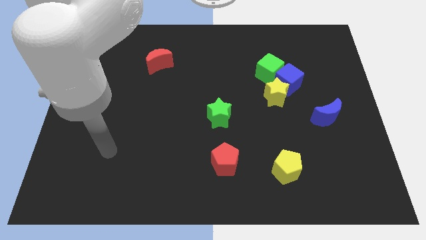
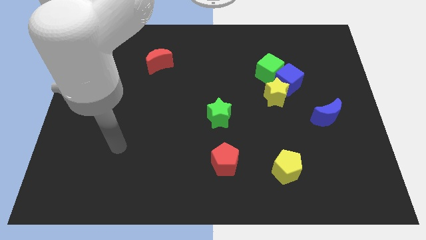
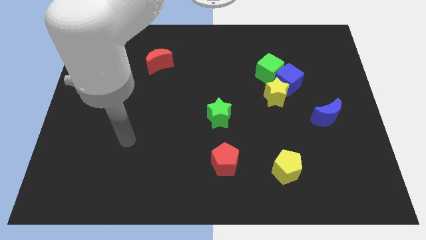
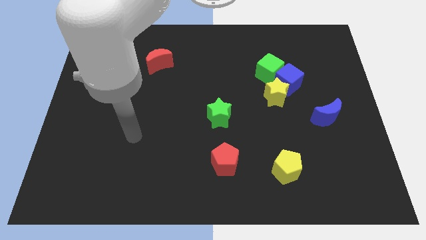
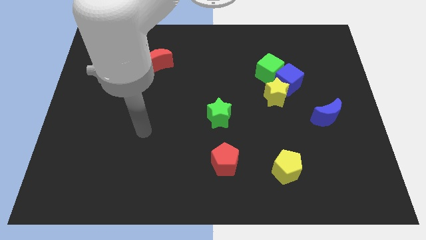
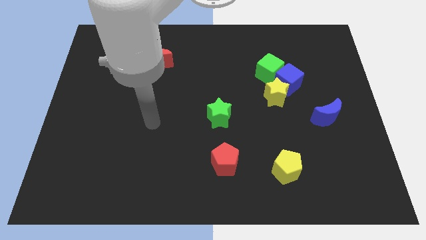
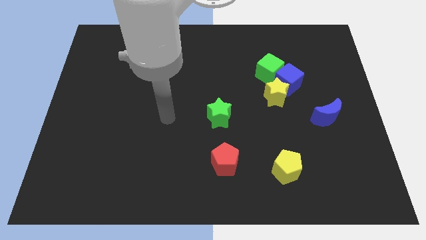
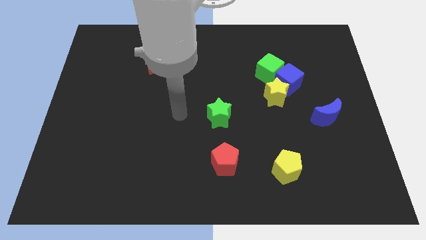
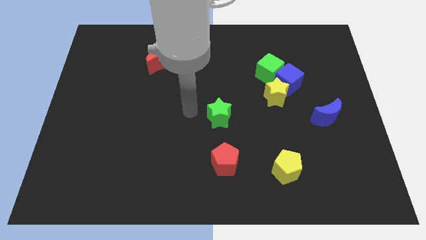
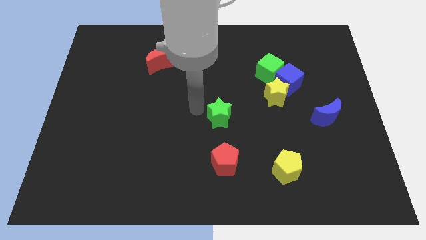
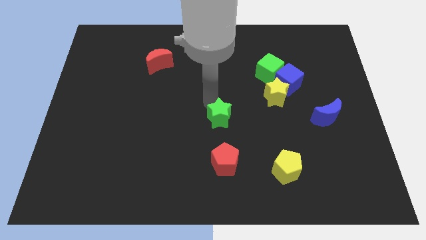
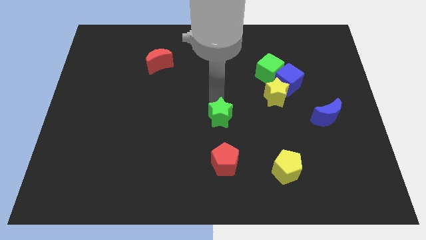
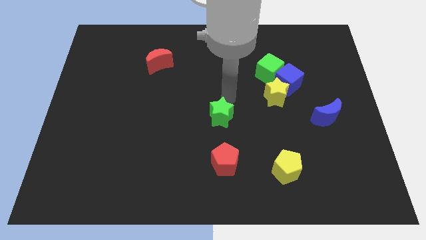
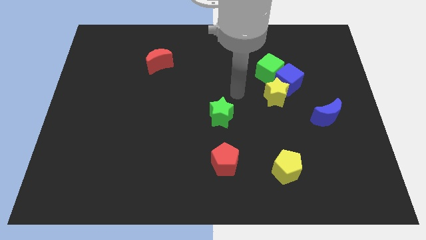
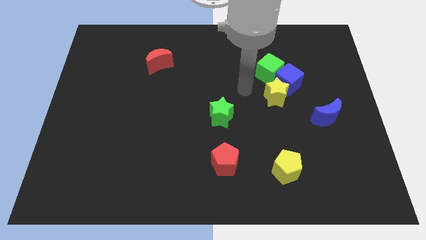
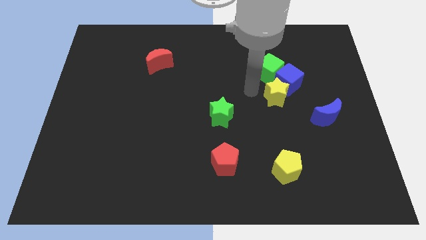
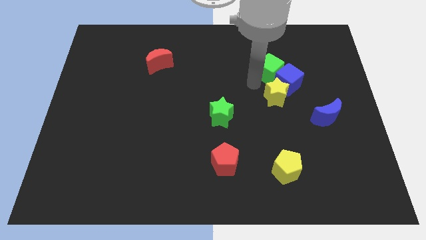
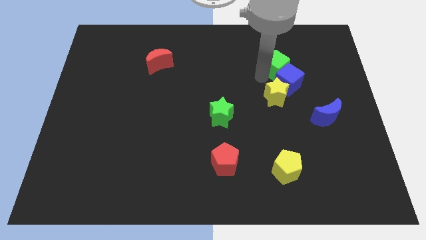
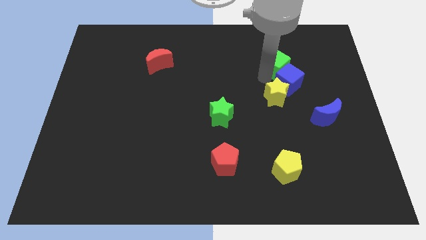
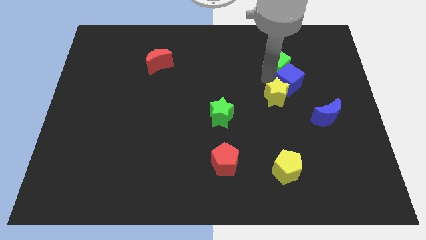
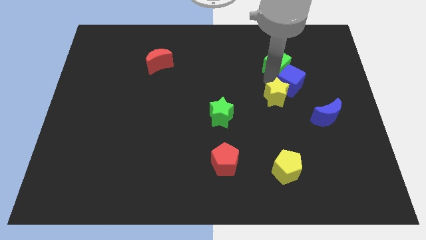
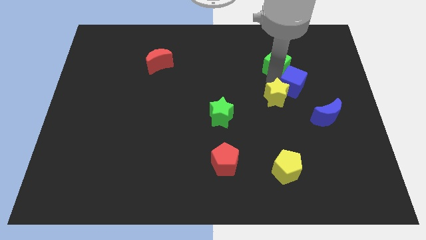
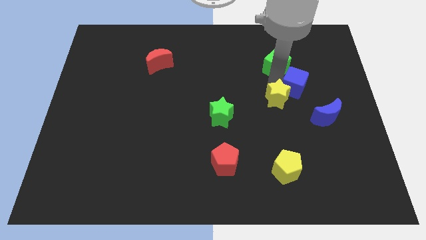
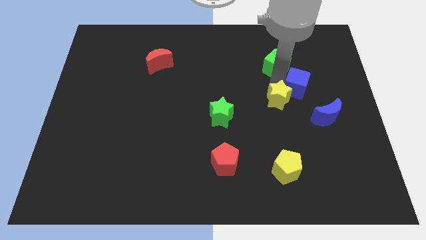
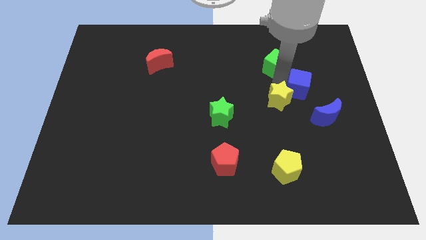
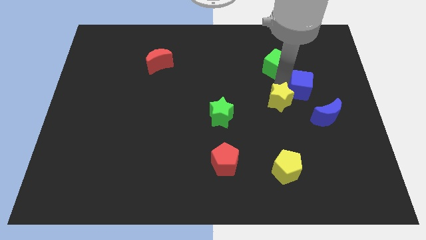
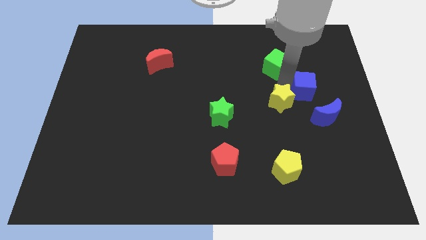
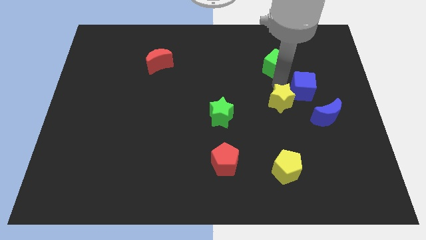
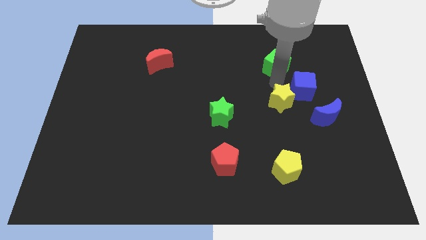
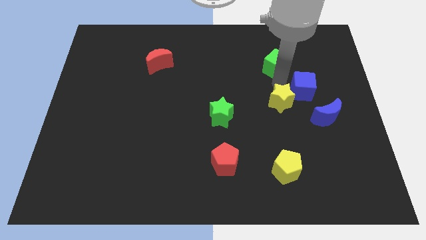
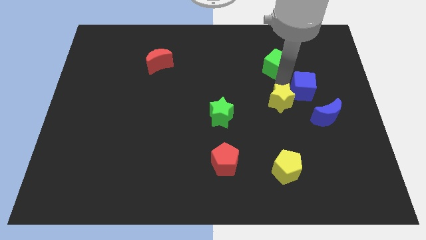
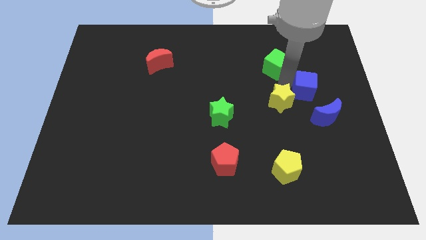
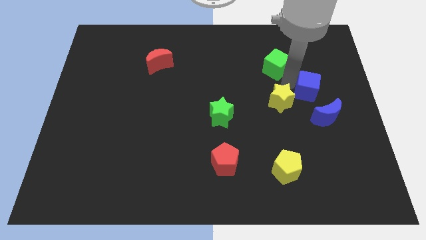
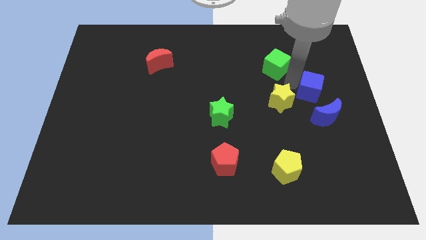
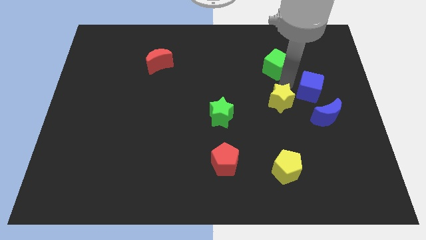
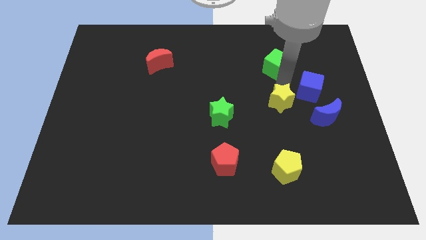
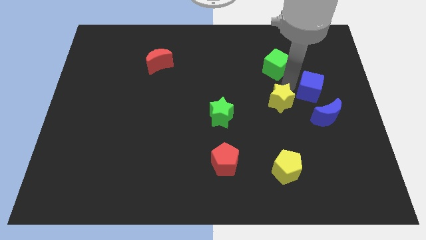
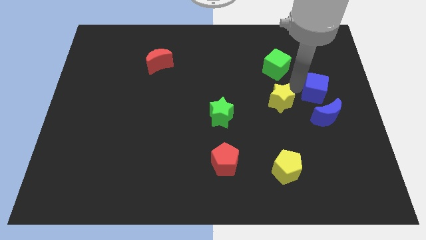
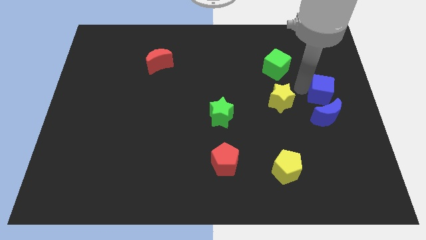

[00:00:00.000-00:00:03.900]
pull the blue cube apart from the yellow star and green cube

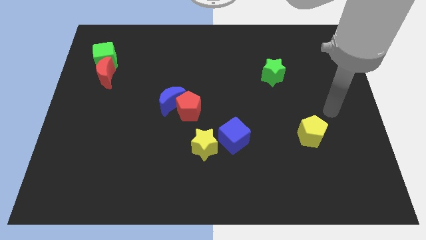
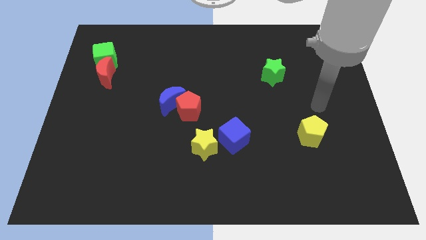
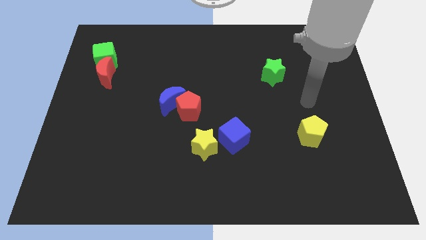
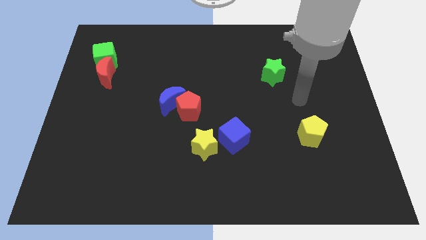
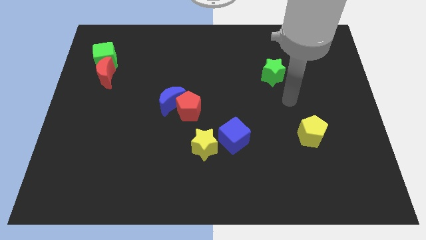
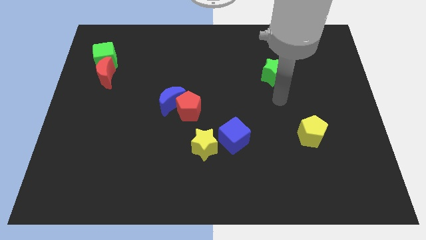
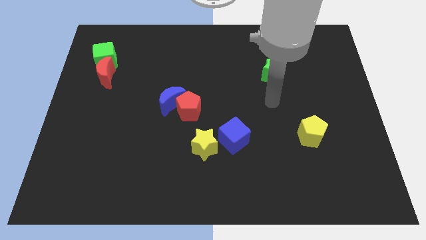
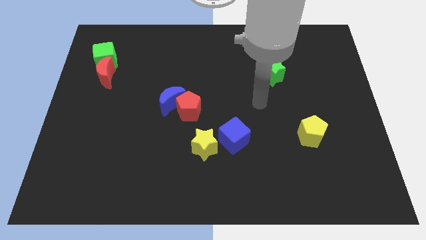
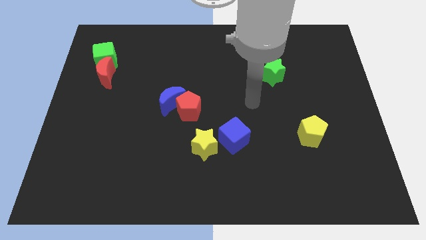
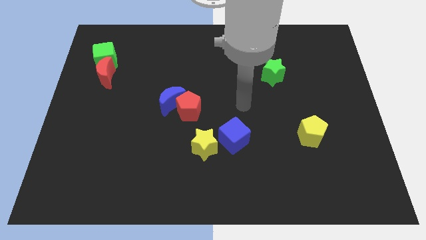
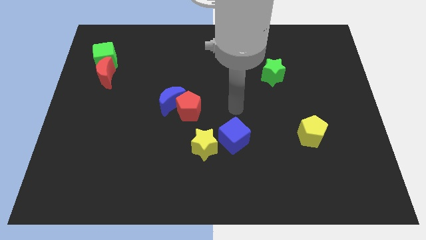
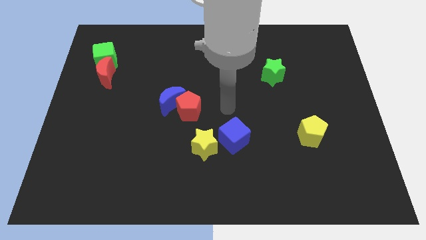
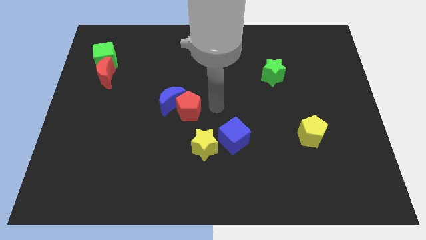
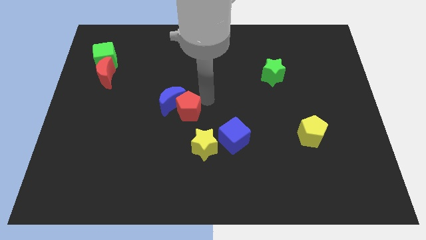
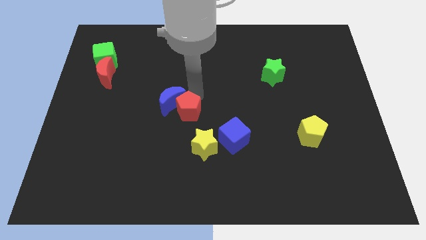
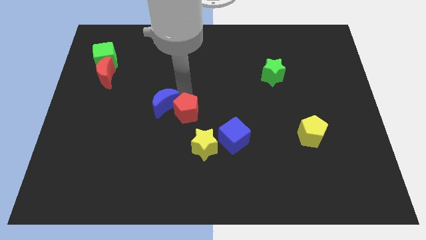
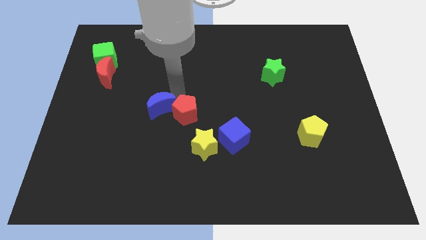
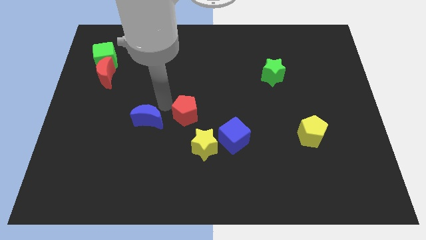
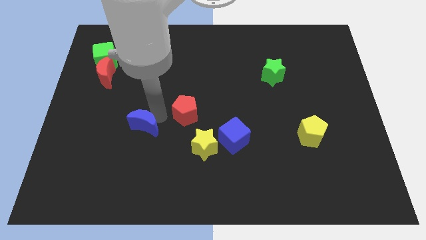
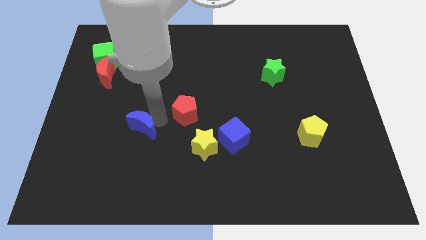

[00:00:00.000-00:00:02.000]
move the red pentagon away from the blue moon

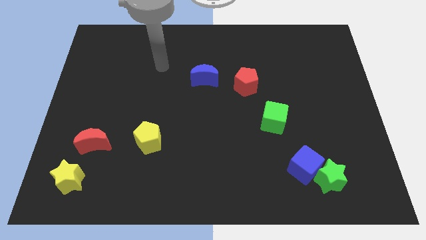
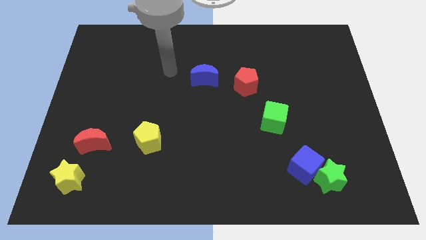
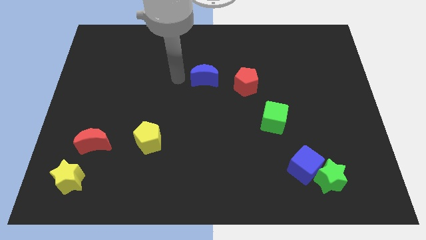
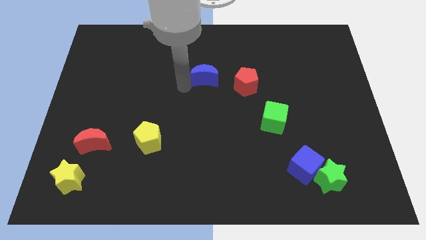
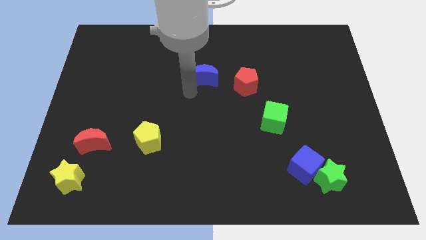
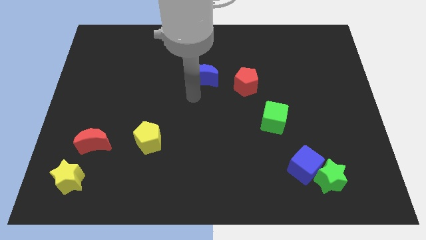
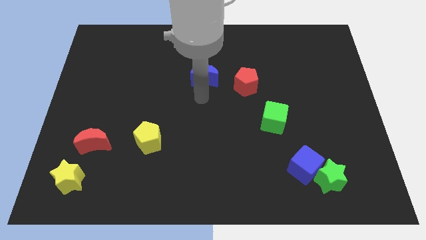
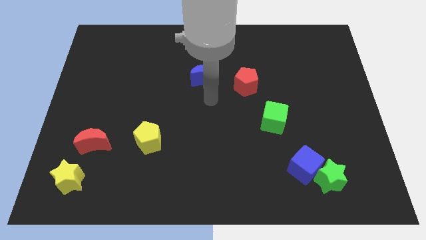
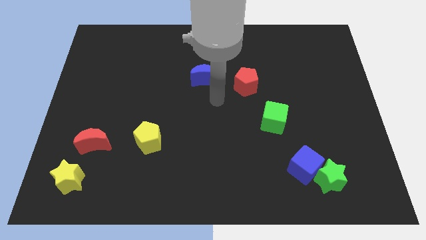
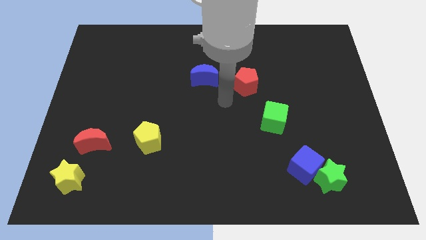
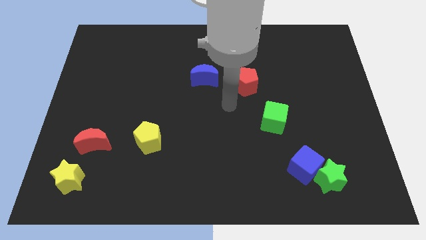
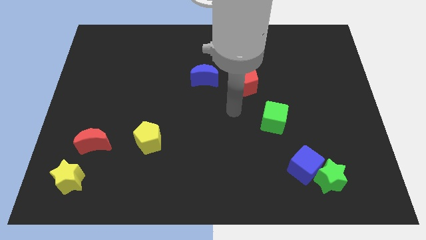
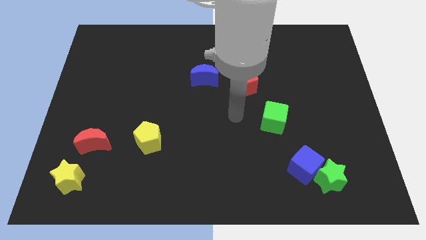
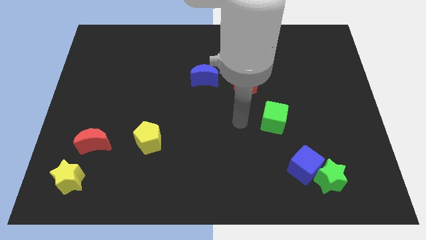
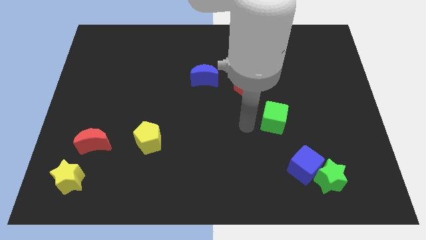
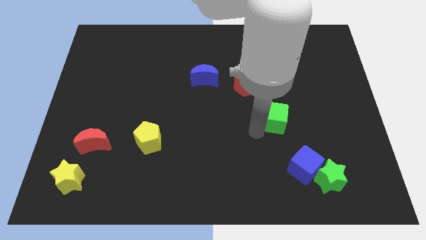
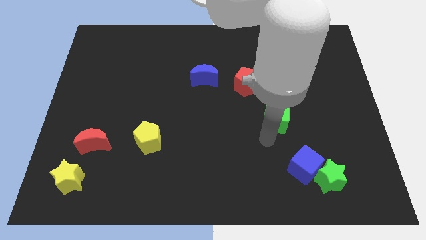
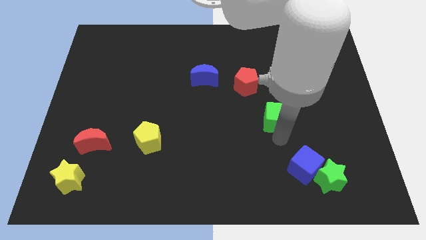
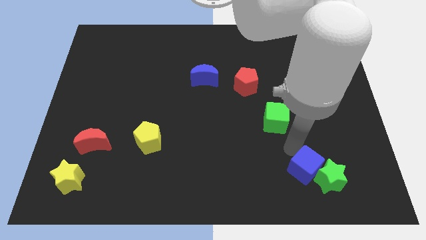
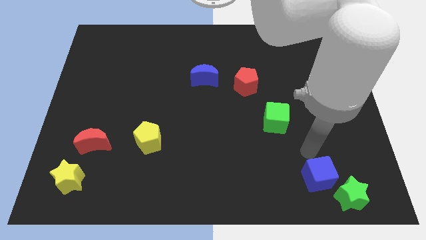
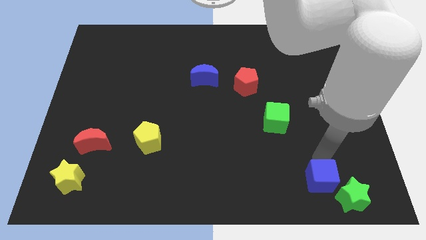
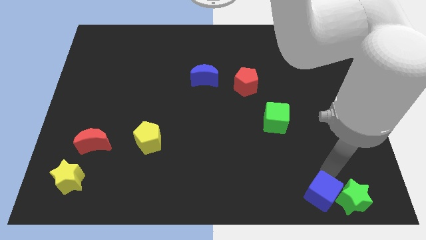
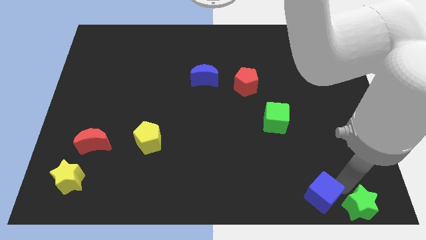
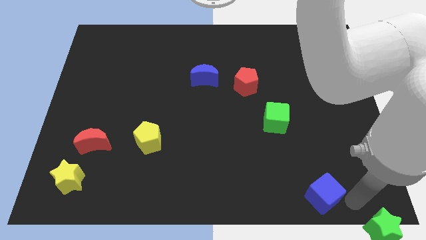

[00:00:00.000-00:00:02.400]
pull the blue cube apart from the green star

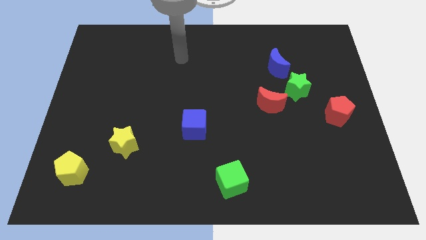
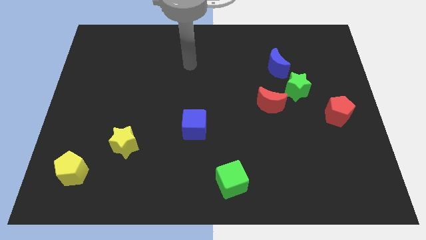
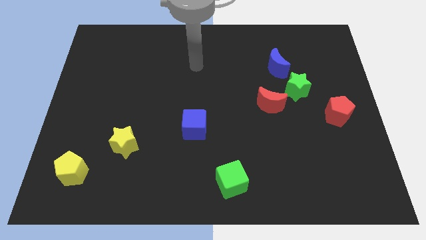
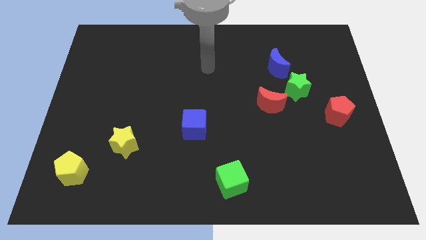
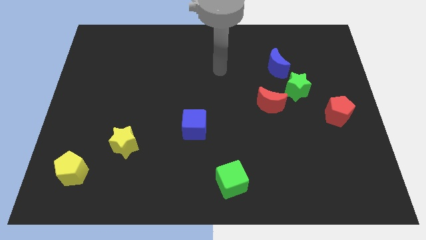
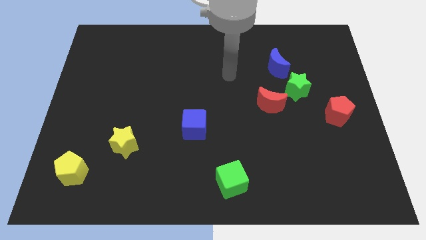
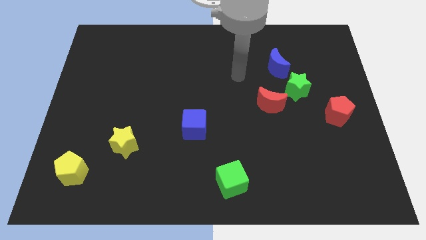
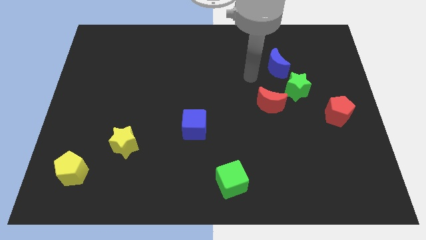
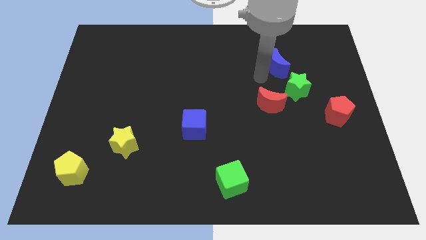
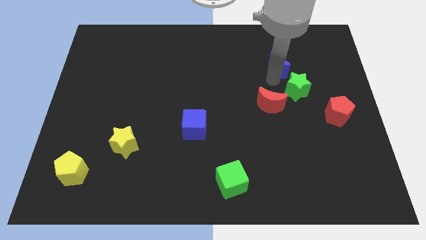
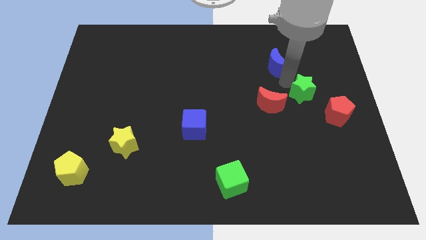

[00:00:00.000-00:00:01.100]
pull the blue moon apart from the green star
